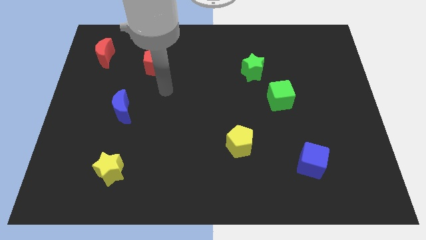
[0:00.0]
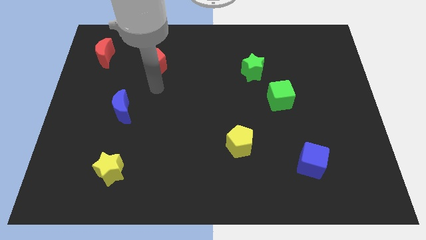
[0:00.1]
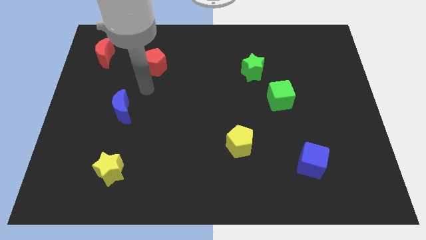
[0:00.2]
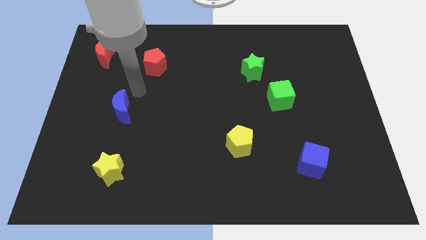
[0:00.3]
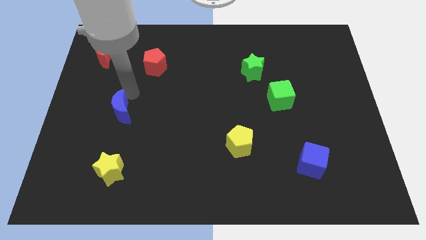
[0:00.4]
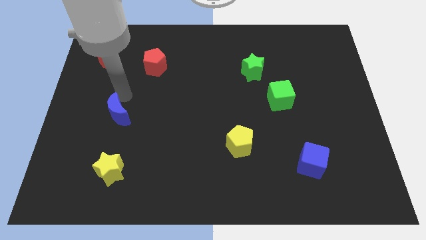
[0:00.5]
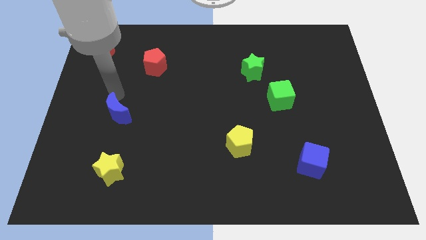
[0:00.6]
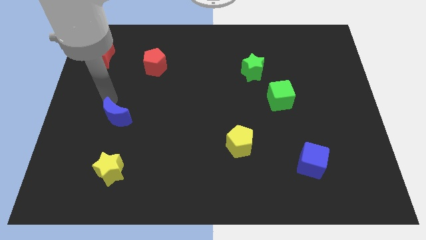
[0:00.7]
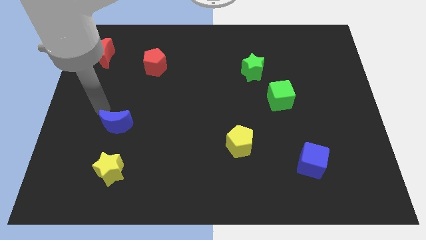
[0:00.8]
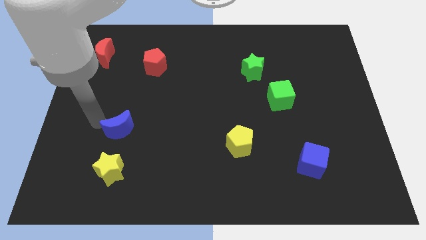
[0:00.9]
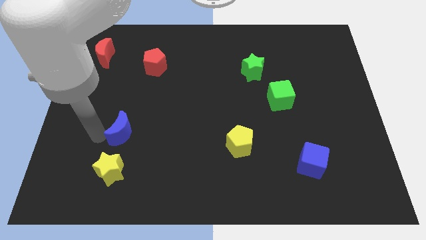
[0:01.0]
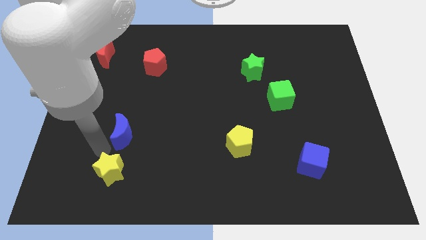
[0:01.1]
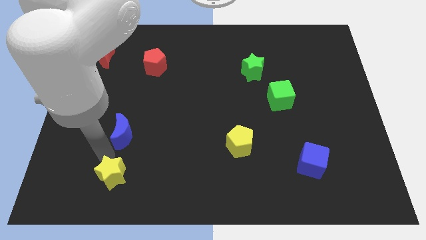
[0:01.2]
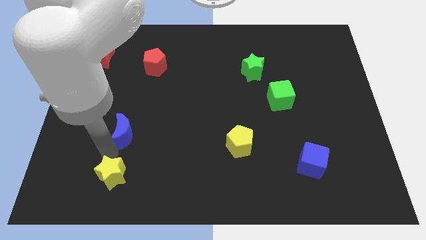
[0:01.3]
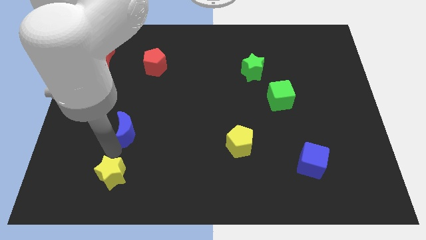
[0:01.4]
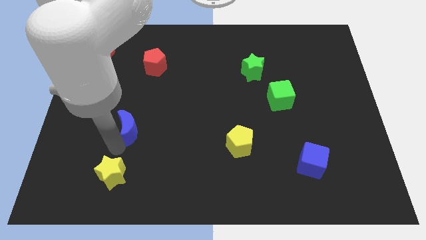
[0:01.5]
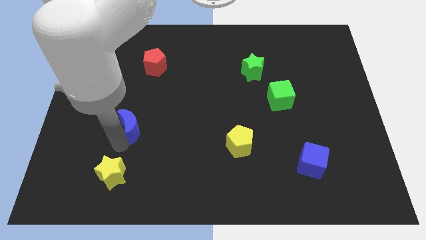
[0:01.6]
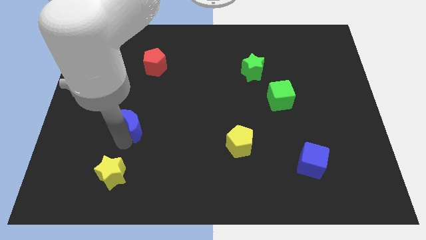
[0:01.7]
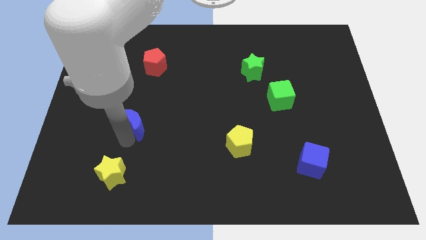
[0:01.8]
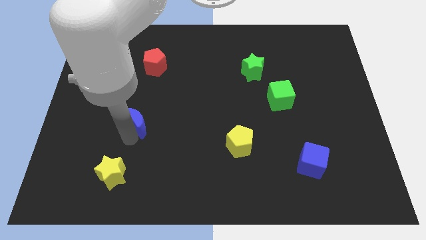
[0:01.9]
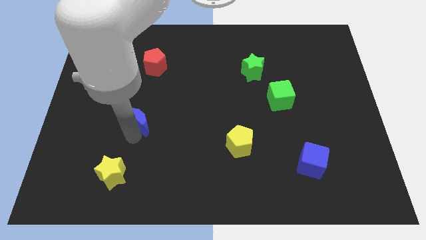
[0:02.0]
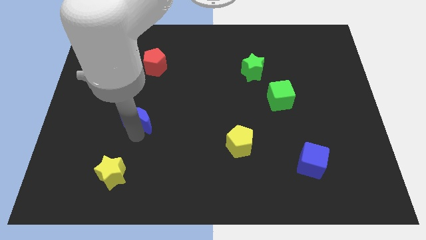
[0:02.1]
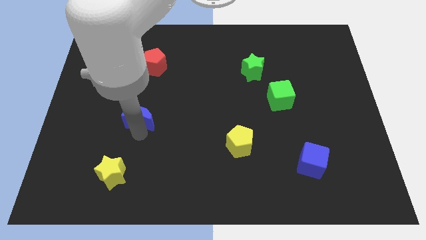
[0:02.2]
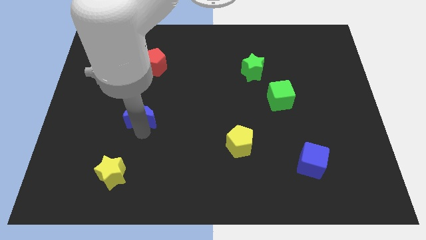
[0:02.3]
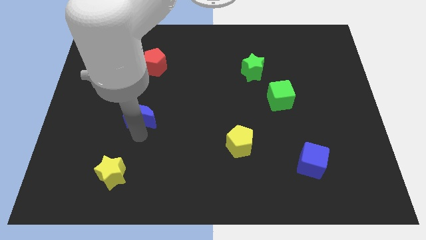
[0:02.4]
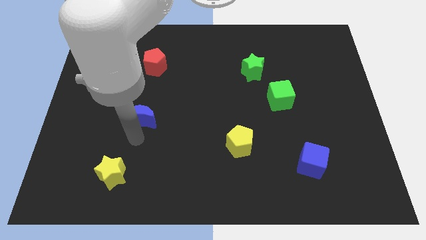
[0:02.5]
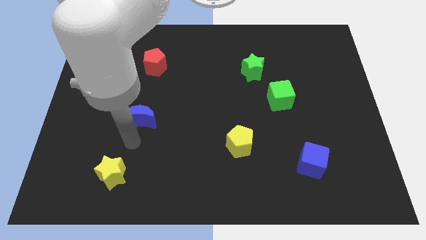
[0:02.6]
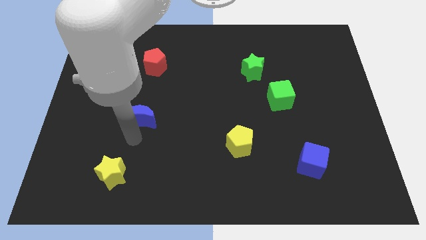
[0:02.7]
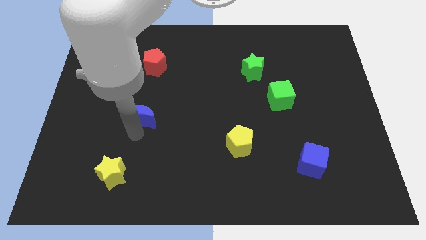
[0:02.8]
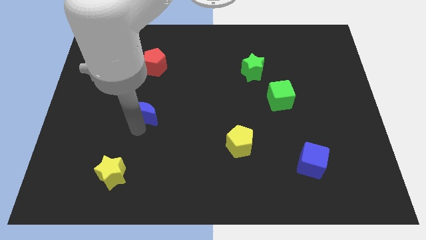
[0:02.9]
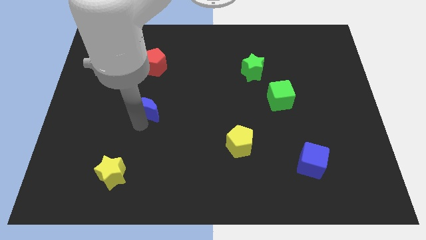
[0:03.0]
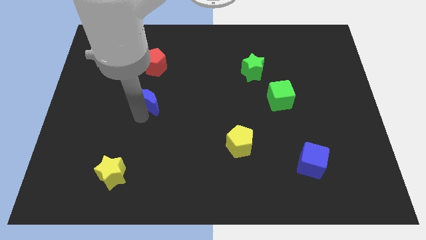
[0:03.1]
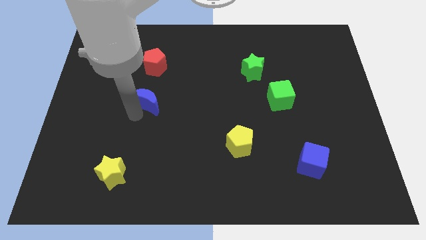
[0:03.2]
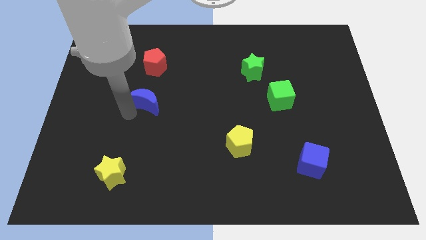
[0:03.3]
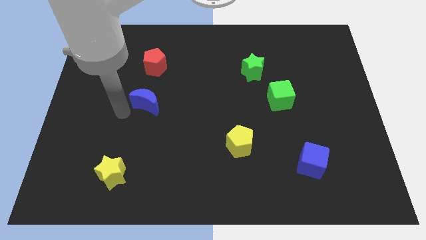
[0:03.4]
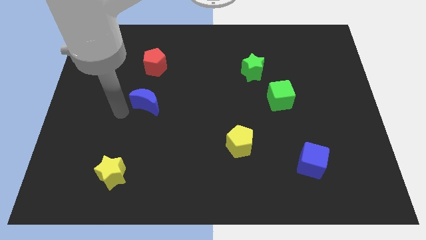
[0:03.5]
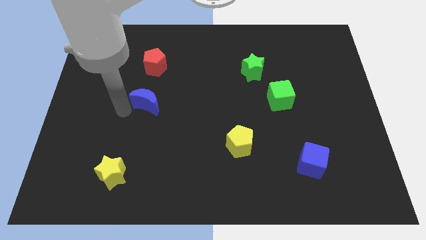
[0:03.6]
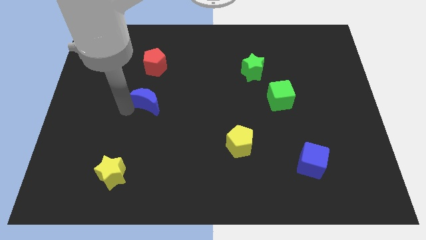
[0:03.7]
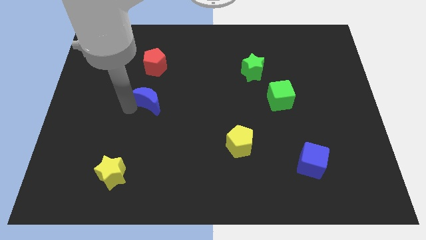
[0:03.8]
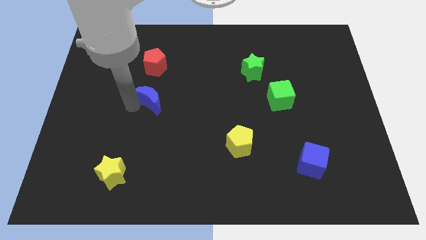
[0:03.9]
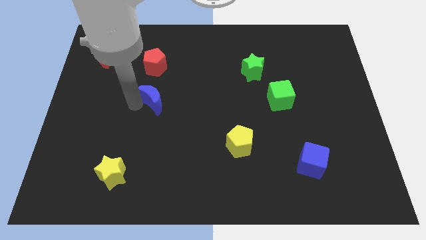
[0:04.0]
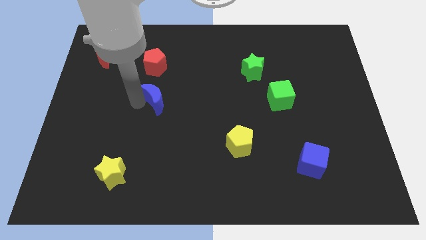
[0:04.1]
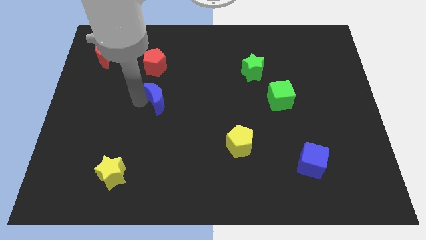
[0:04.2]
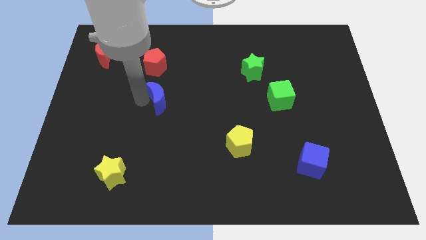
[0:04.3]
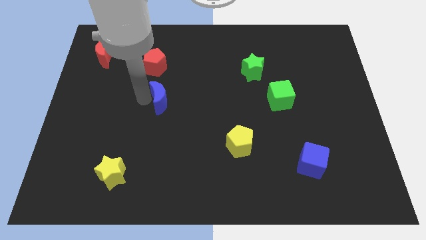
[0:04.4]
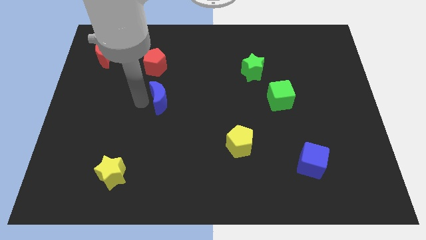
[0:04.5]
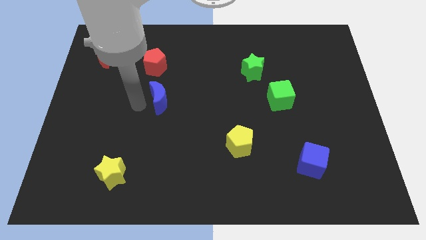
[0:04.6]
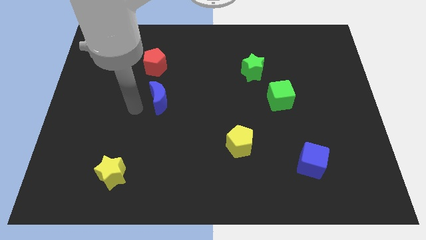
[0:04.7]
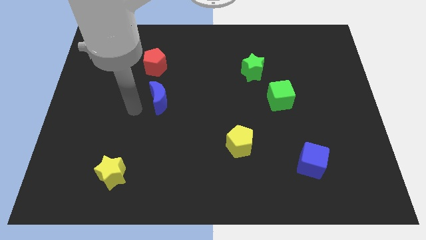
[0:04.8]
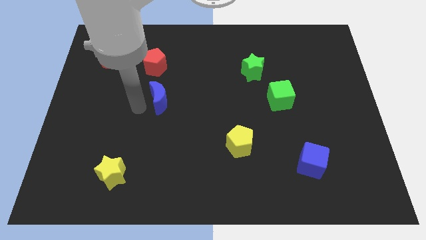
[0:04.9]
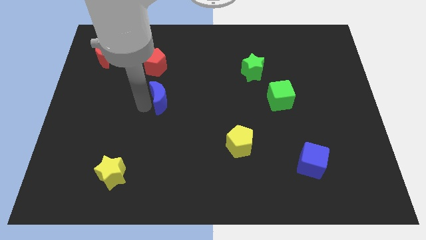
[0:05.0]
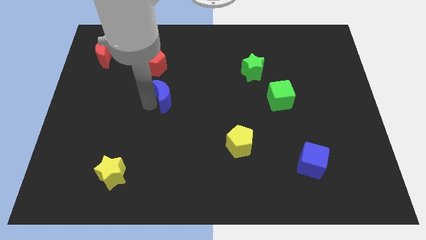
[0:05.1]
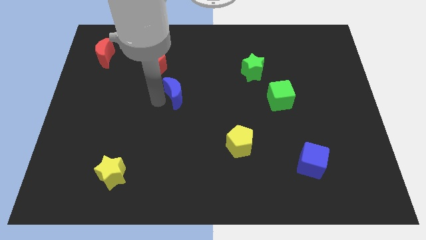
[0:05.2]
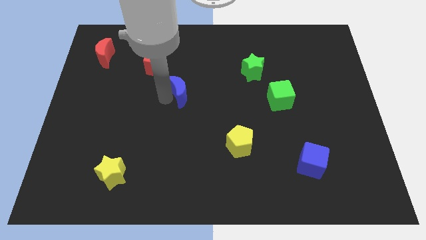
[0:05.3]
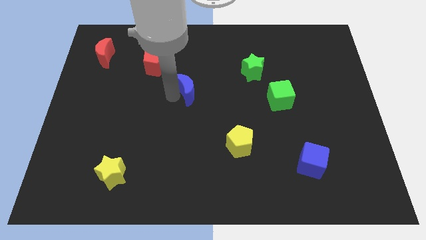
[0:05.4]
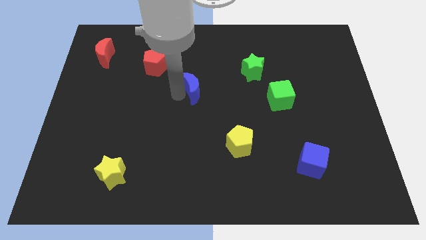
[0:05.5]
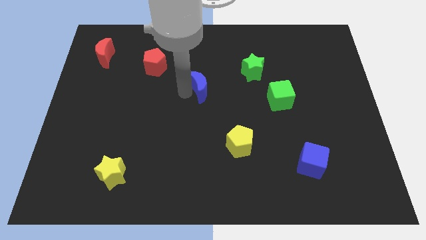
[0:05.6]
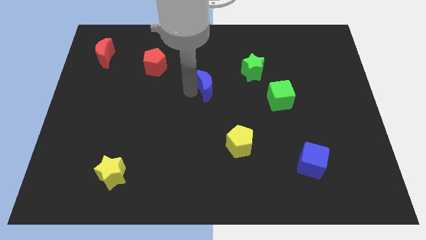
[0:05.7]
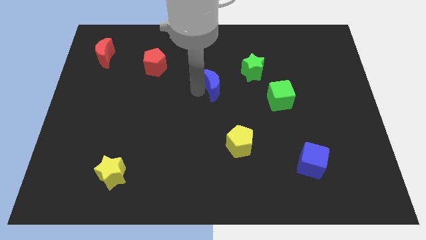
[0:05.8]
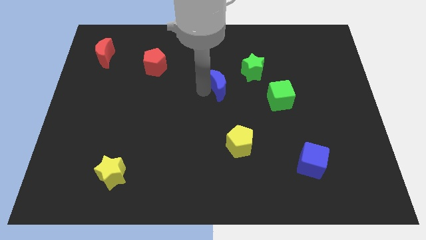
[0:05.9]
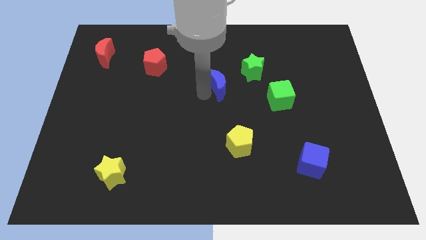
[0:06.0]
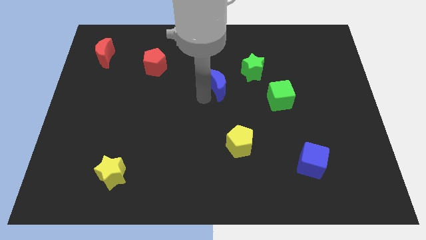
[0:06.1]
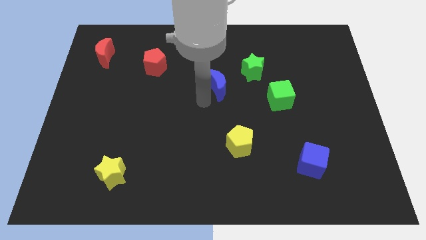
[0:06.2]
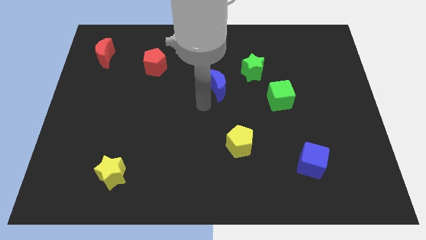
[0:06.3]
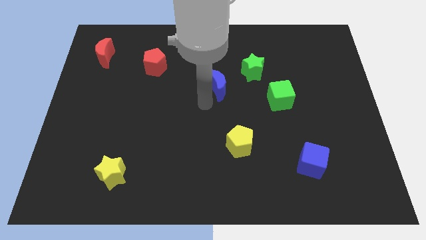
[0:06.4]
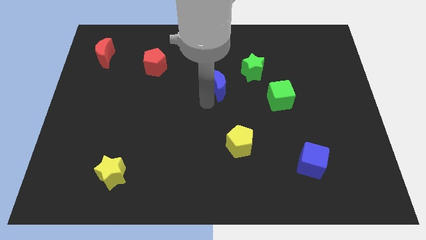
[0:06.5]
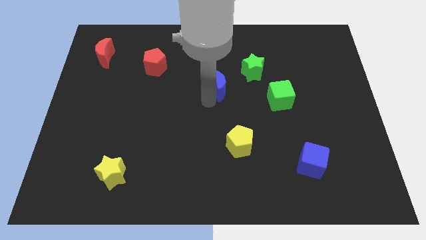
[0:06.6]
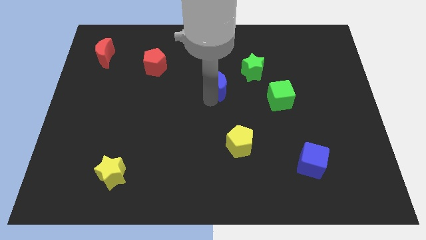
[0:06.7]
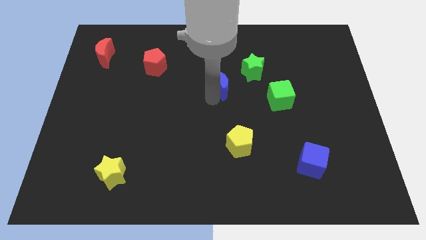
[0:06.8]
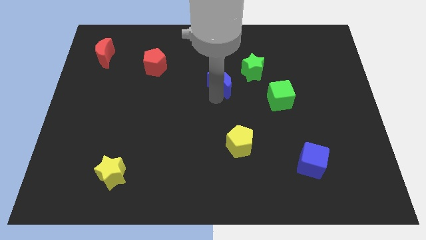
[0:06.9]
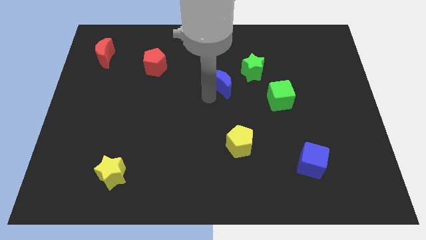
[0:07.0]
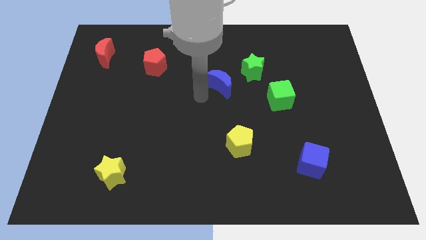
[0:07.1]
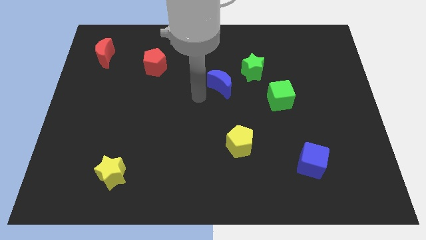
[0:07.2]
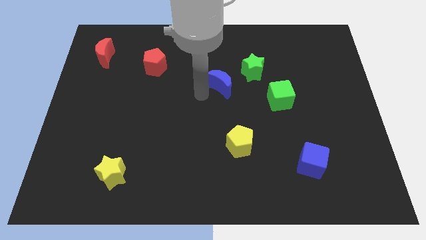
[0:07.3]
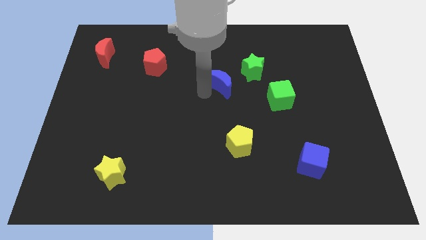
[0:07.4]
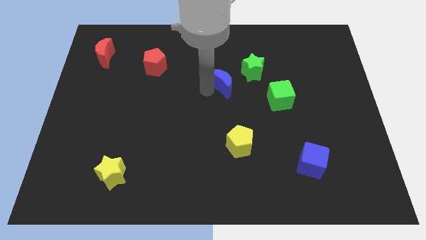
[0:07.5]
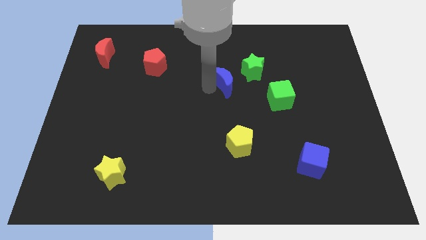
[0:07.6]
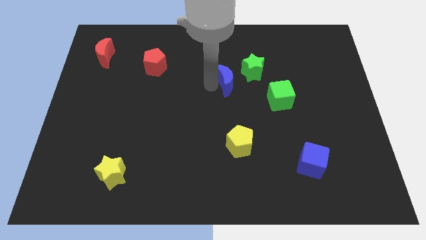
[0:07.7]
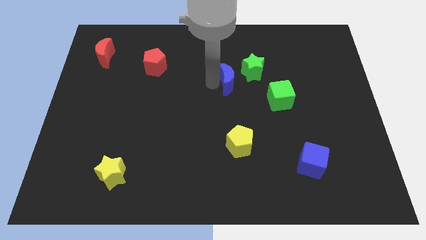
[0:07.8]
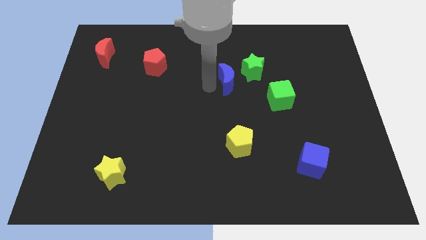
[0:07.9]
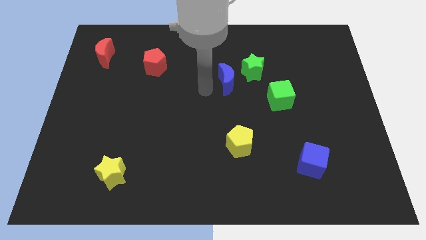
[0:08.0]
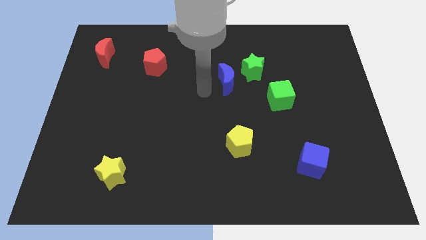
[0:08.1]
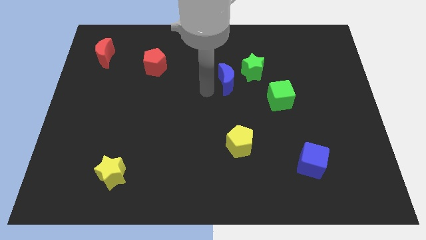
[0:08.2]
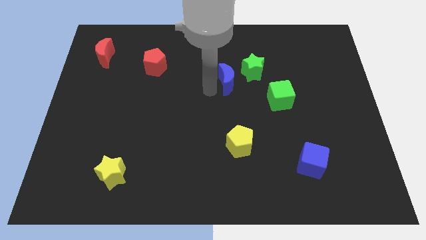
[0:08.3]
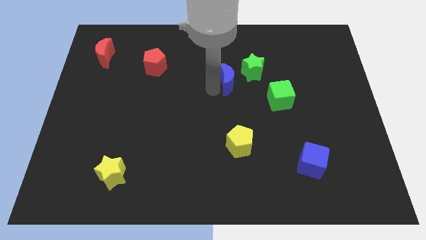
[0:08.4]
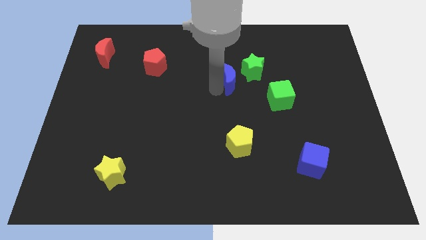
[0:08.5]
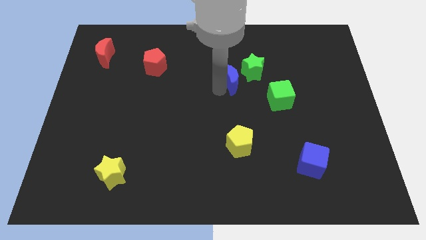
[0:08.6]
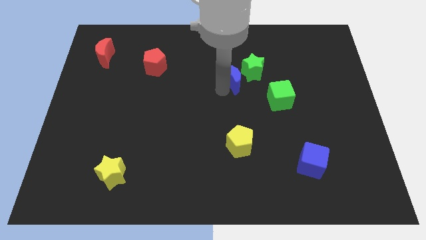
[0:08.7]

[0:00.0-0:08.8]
put the blue moon next to the green star
